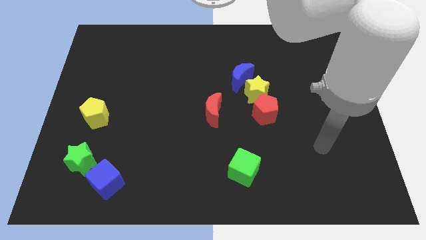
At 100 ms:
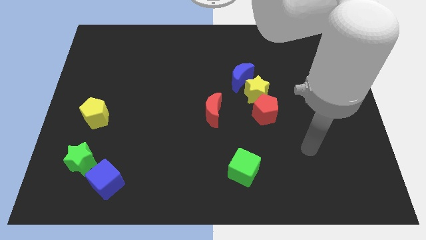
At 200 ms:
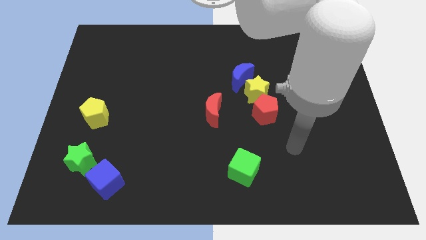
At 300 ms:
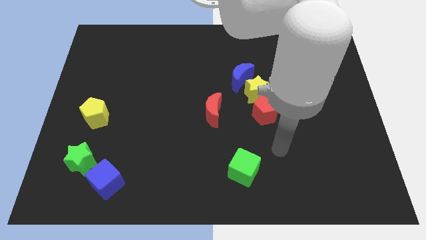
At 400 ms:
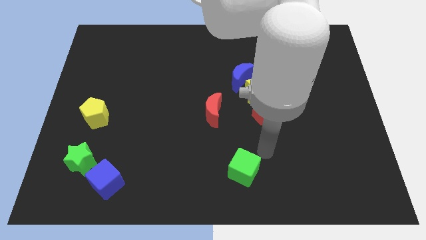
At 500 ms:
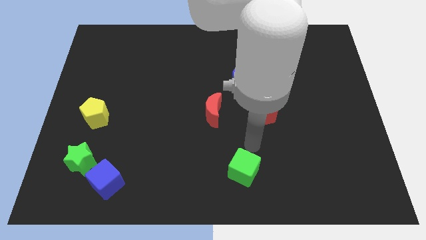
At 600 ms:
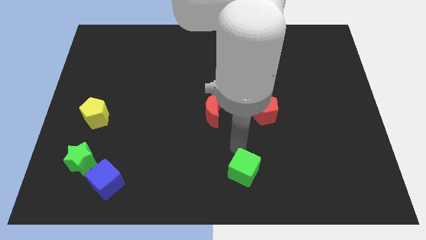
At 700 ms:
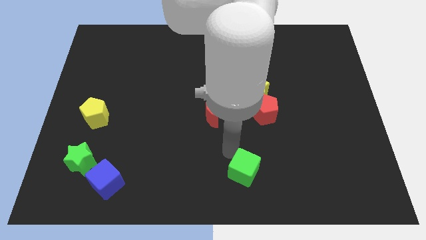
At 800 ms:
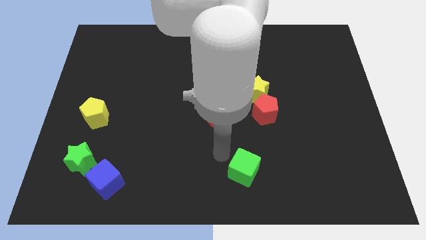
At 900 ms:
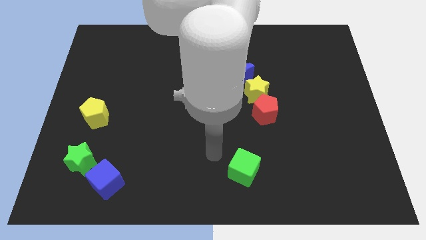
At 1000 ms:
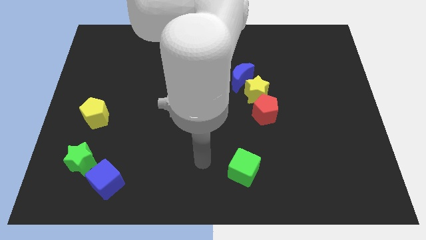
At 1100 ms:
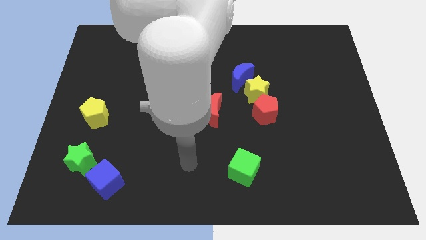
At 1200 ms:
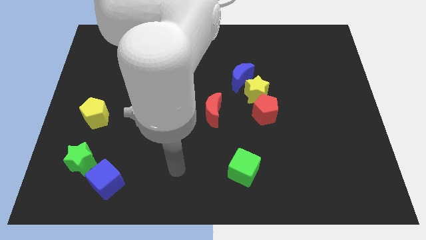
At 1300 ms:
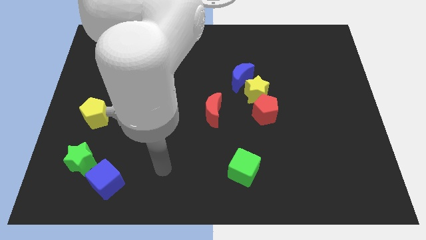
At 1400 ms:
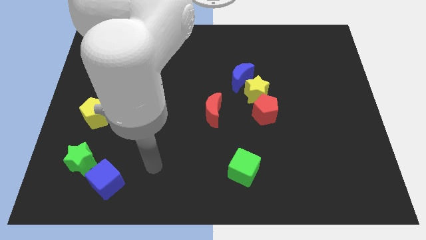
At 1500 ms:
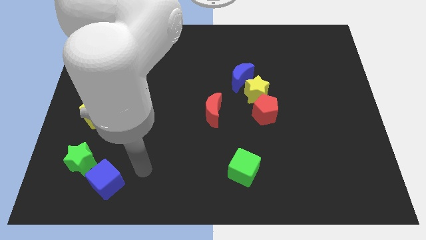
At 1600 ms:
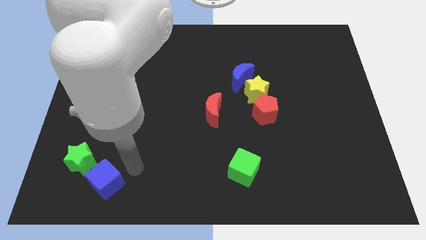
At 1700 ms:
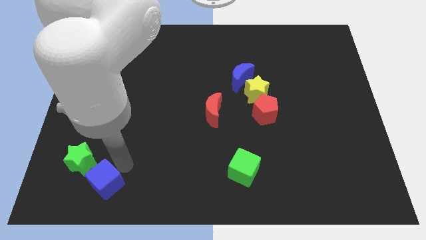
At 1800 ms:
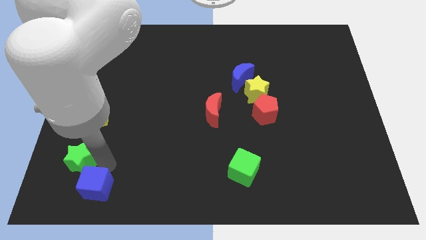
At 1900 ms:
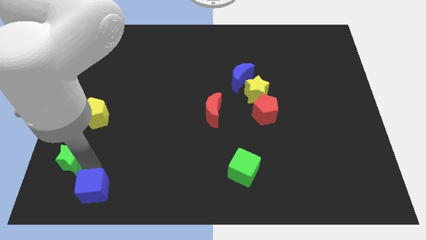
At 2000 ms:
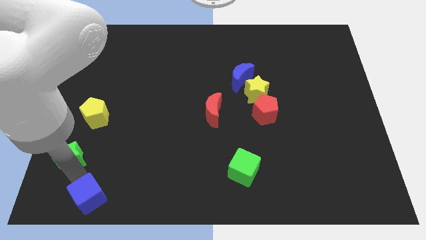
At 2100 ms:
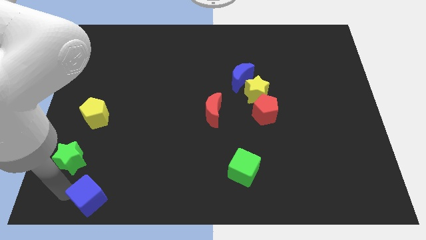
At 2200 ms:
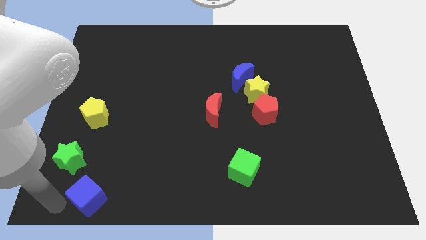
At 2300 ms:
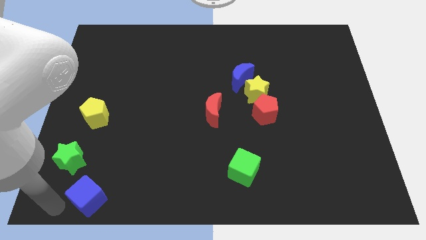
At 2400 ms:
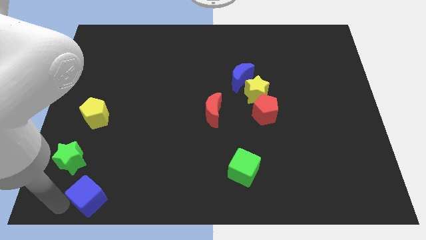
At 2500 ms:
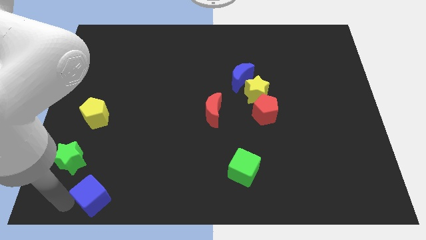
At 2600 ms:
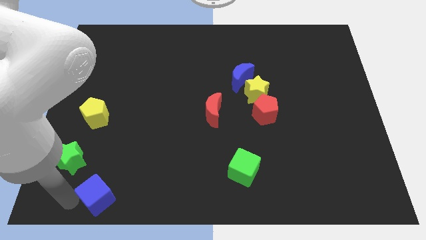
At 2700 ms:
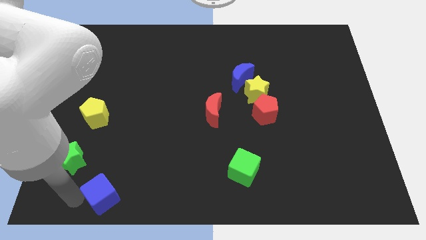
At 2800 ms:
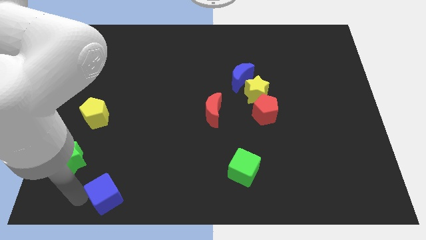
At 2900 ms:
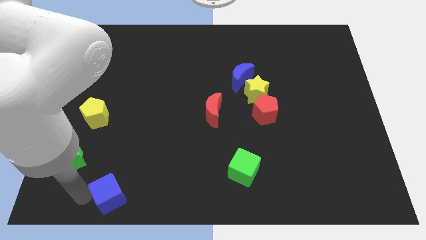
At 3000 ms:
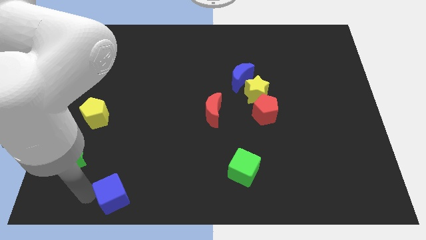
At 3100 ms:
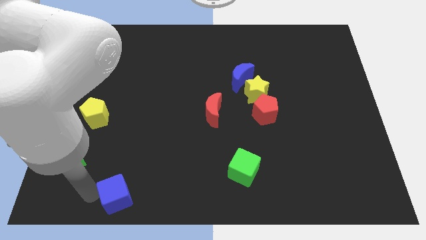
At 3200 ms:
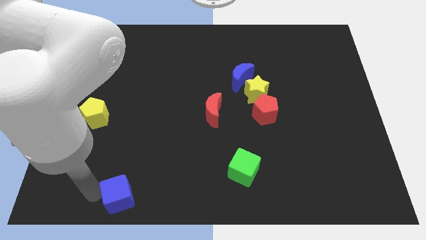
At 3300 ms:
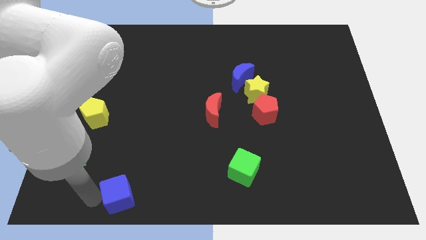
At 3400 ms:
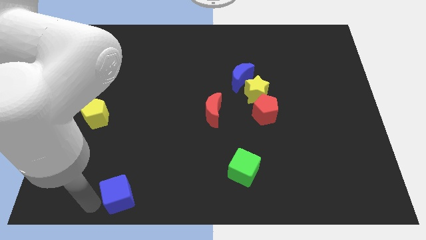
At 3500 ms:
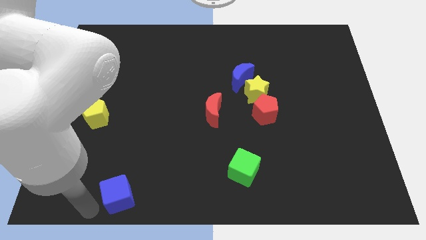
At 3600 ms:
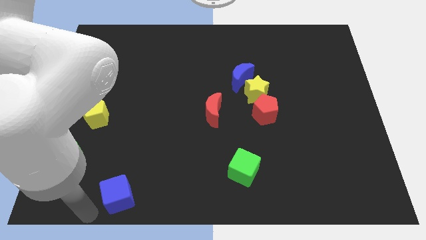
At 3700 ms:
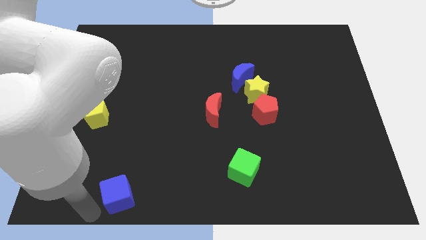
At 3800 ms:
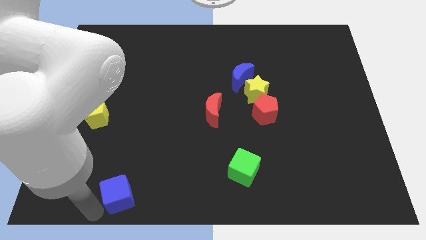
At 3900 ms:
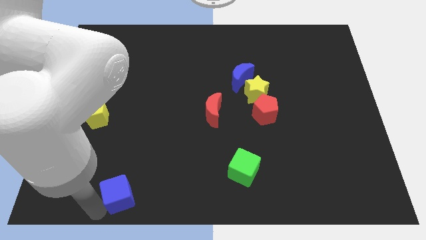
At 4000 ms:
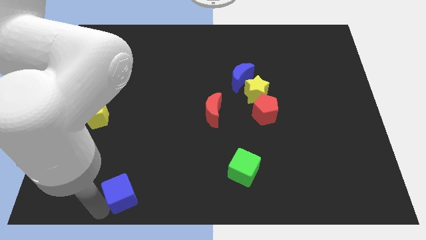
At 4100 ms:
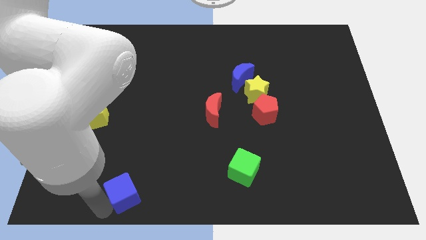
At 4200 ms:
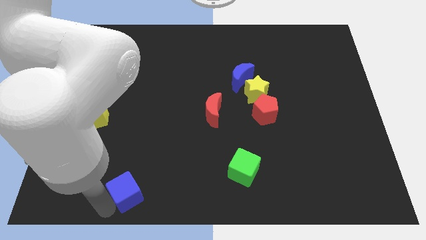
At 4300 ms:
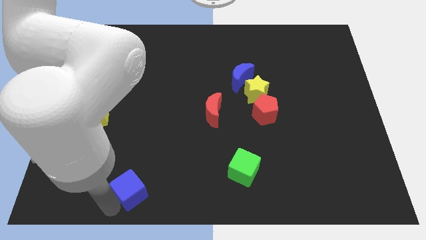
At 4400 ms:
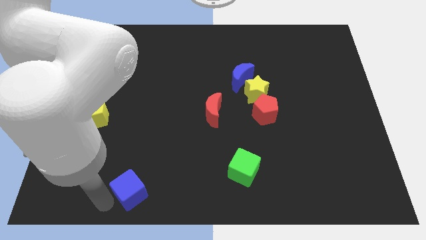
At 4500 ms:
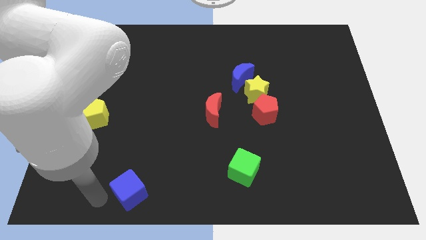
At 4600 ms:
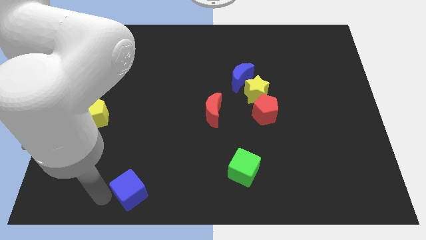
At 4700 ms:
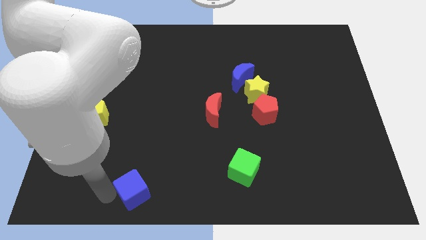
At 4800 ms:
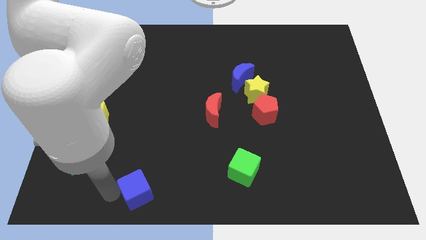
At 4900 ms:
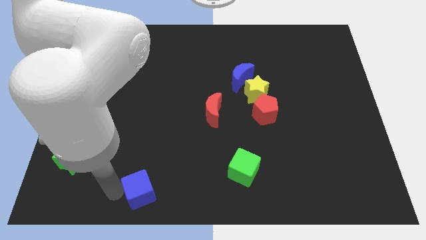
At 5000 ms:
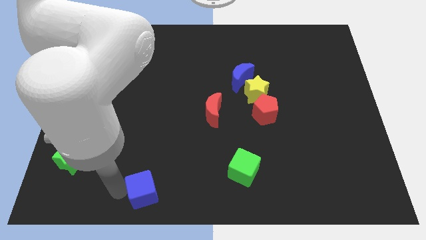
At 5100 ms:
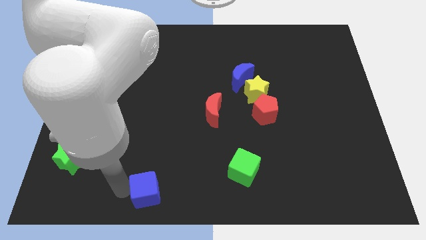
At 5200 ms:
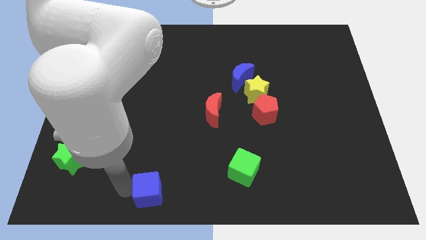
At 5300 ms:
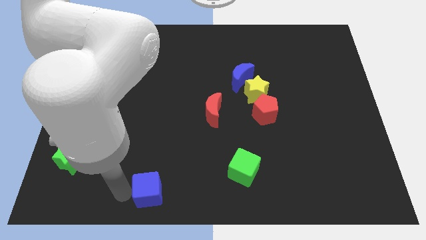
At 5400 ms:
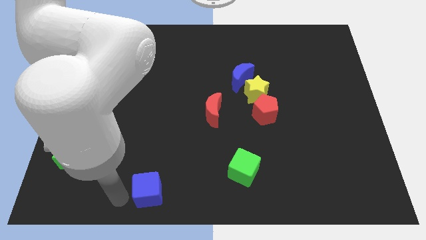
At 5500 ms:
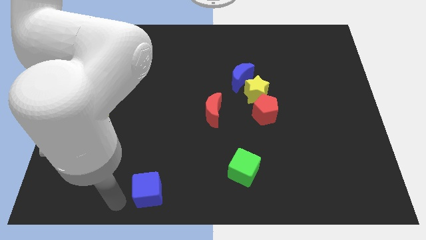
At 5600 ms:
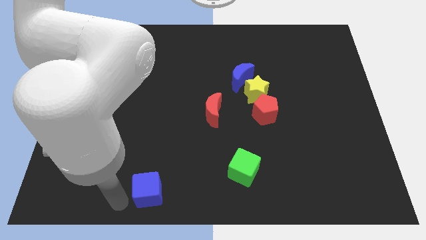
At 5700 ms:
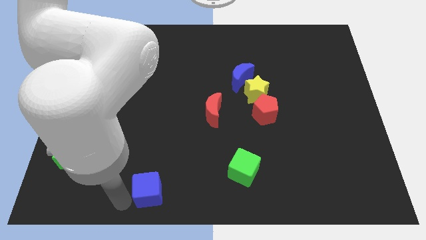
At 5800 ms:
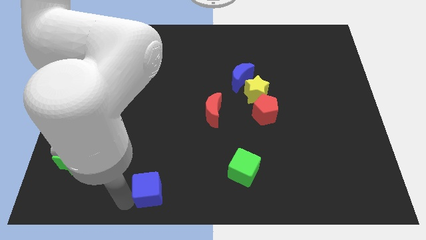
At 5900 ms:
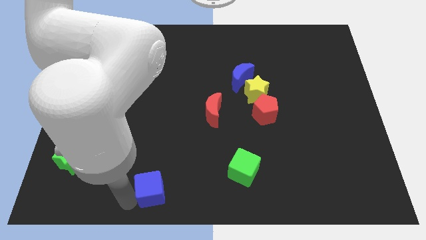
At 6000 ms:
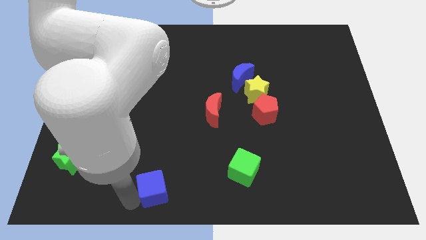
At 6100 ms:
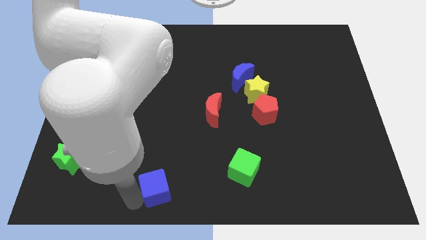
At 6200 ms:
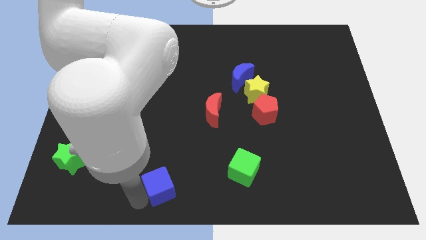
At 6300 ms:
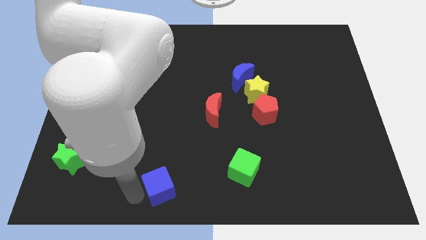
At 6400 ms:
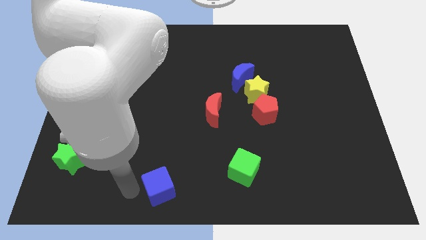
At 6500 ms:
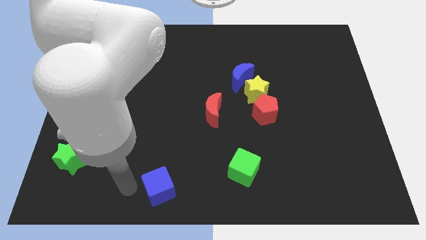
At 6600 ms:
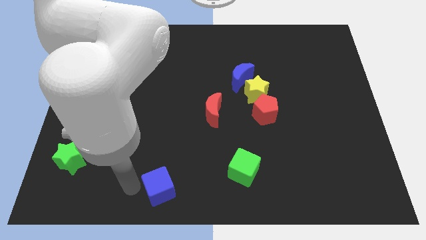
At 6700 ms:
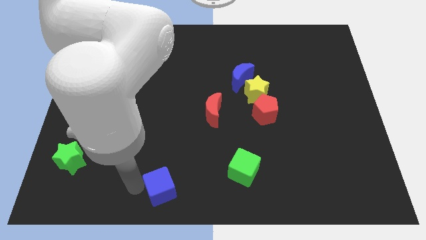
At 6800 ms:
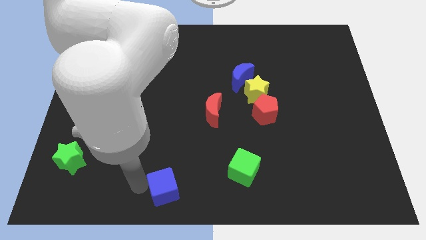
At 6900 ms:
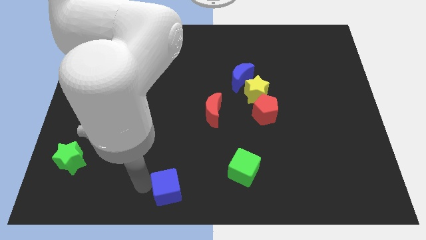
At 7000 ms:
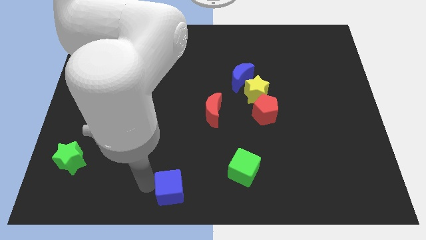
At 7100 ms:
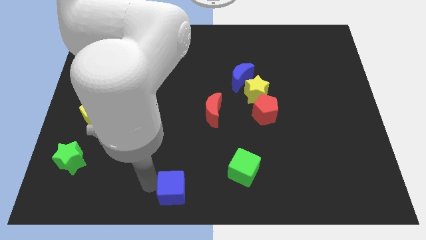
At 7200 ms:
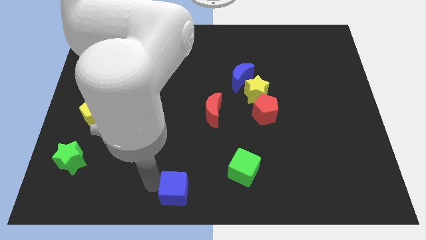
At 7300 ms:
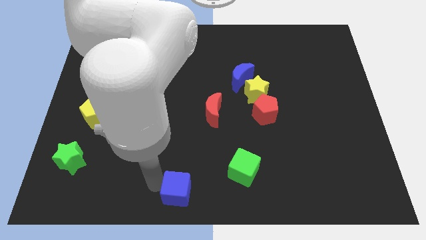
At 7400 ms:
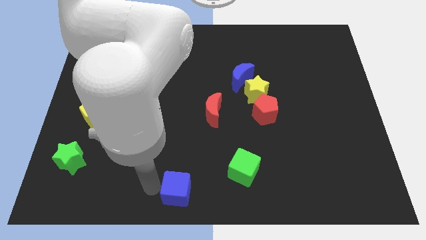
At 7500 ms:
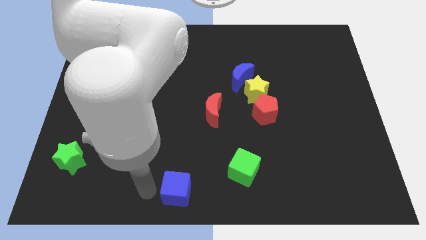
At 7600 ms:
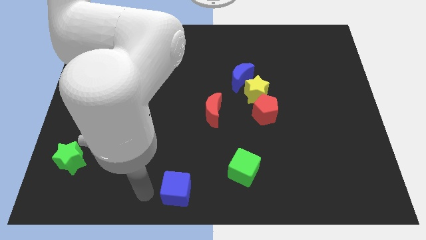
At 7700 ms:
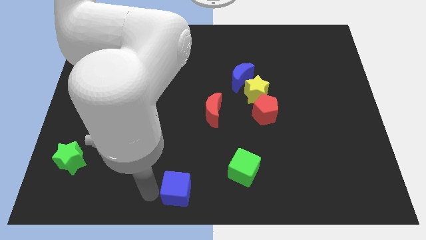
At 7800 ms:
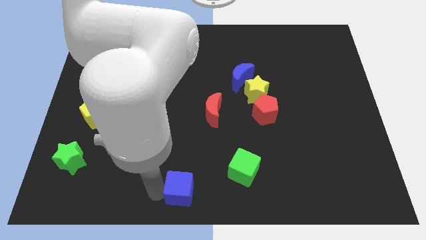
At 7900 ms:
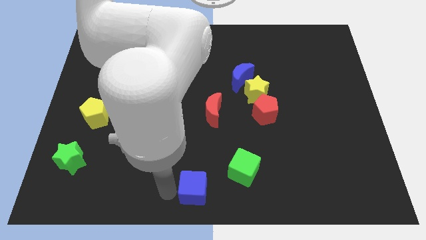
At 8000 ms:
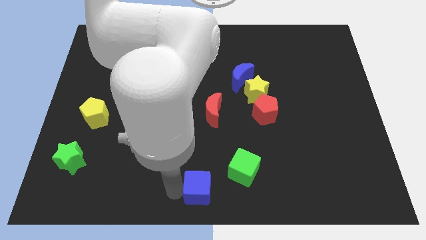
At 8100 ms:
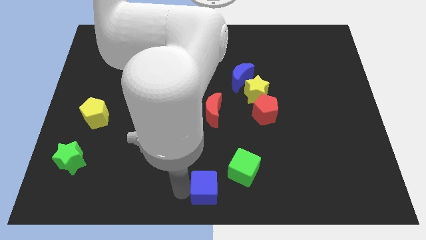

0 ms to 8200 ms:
move the blue cube to the right
